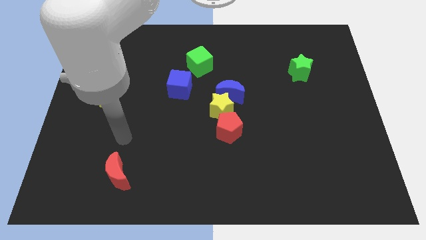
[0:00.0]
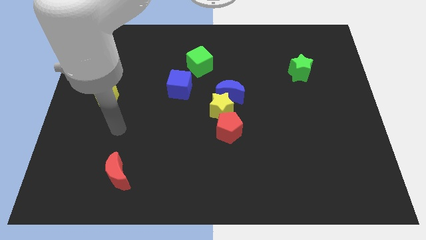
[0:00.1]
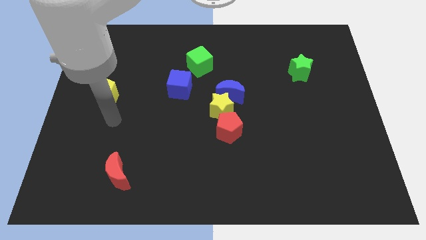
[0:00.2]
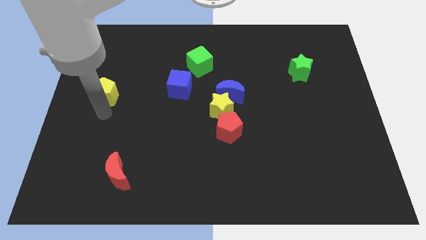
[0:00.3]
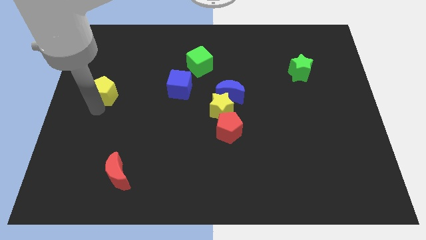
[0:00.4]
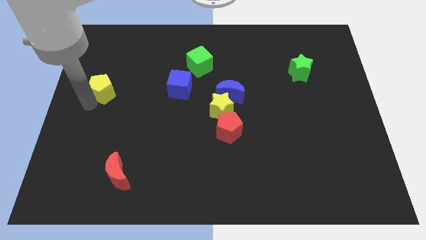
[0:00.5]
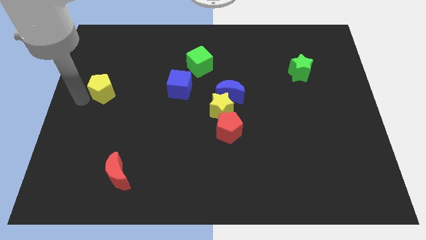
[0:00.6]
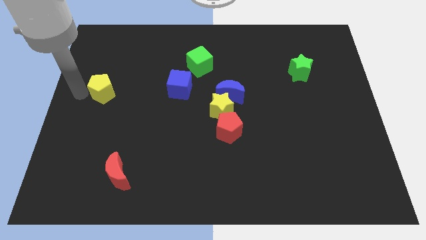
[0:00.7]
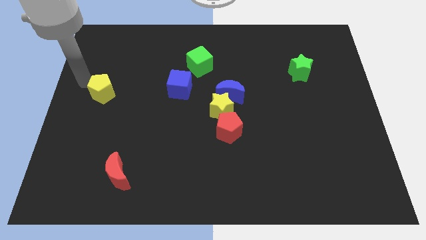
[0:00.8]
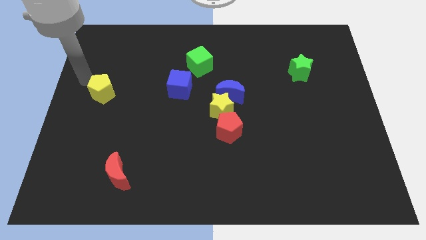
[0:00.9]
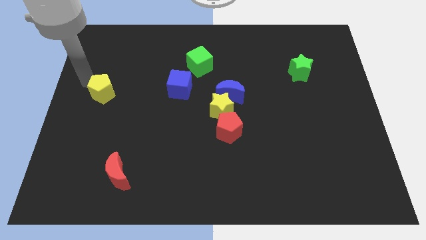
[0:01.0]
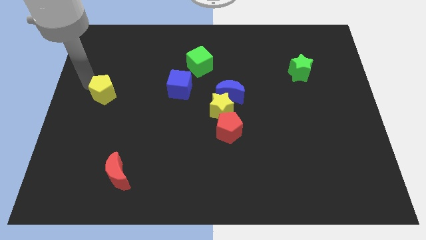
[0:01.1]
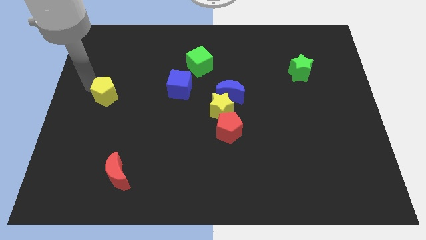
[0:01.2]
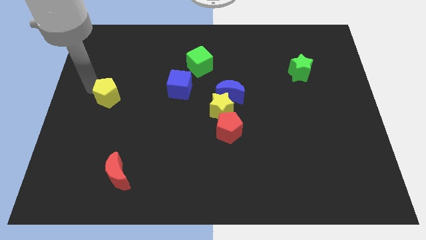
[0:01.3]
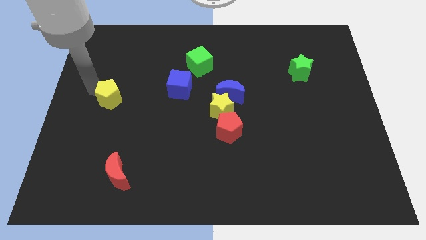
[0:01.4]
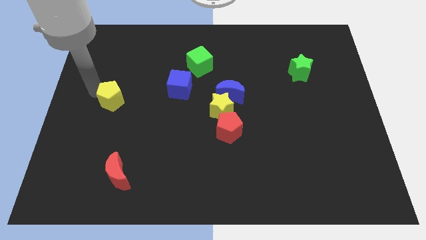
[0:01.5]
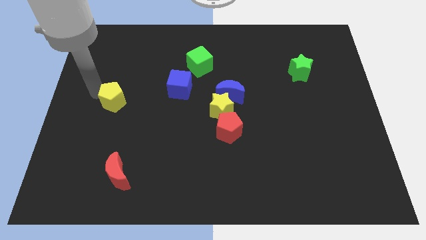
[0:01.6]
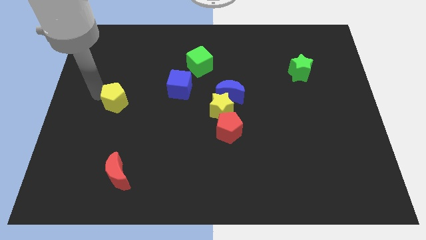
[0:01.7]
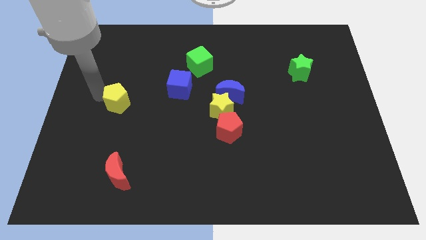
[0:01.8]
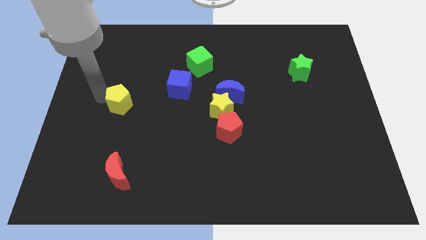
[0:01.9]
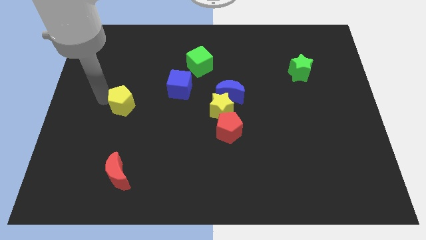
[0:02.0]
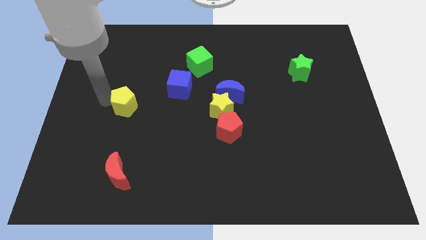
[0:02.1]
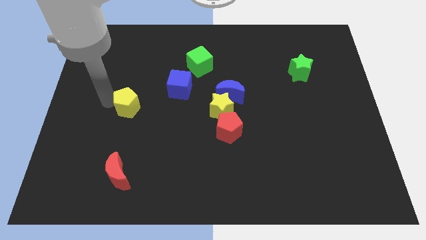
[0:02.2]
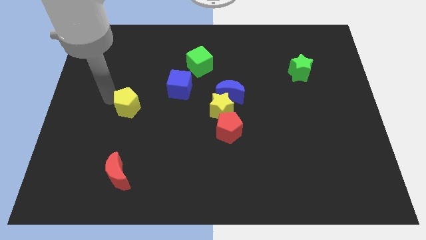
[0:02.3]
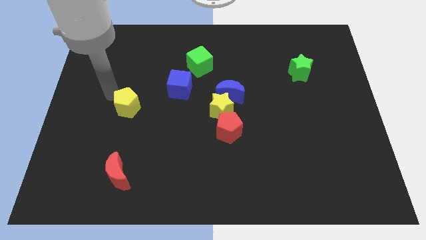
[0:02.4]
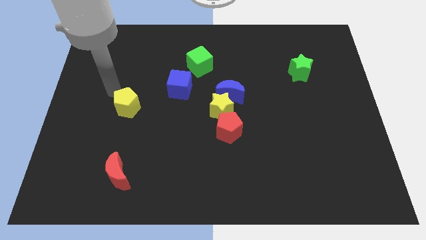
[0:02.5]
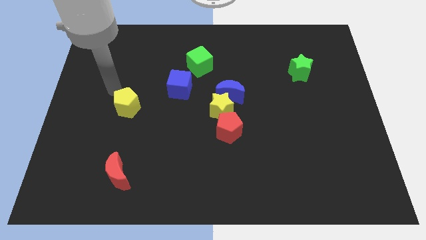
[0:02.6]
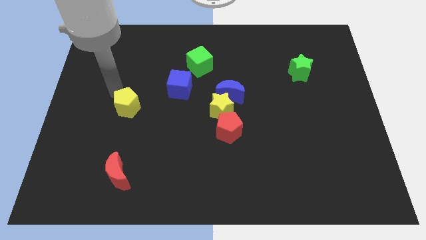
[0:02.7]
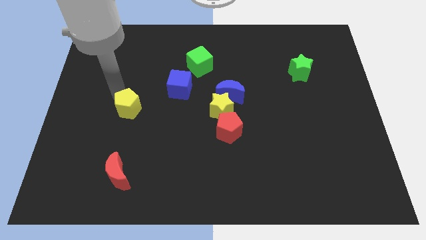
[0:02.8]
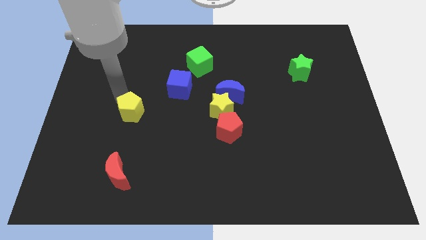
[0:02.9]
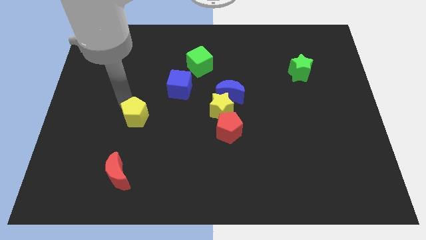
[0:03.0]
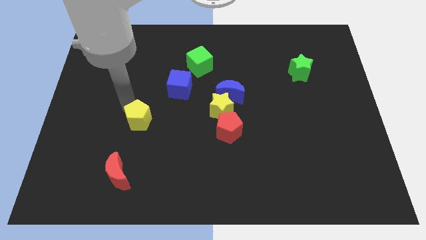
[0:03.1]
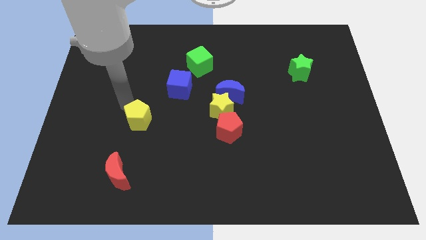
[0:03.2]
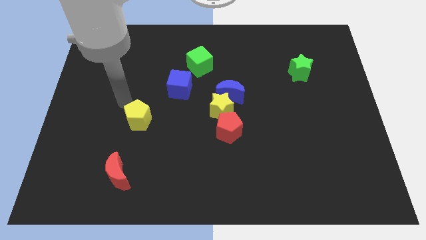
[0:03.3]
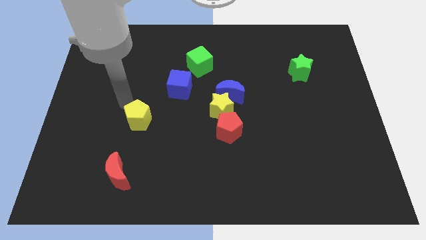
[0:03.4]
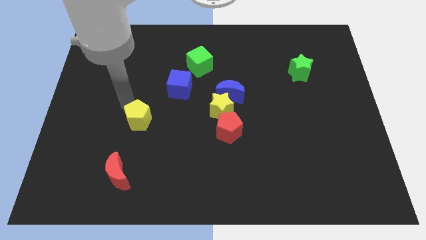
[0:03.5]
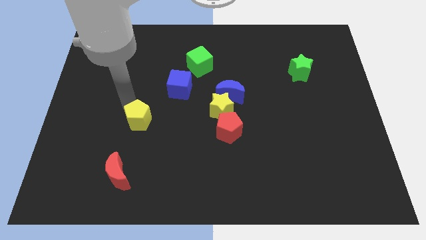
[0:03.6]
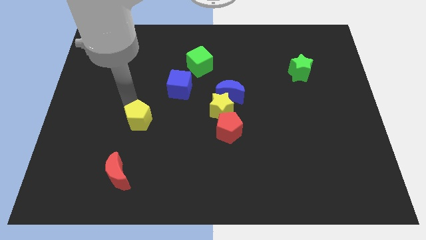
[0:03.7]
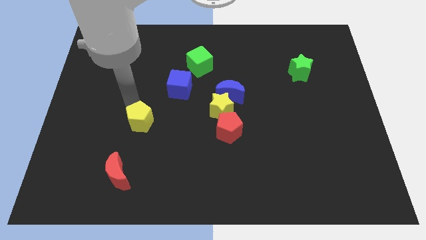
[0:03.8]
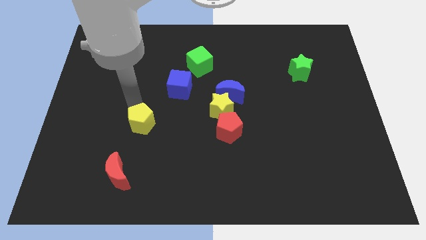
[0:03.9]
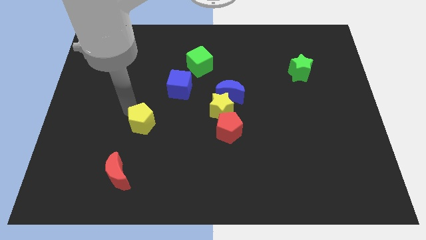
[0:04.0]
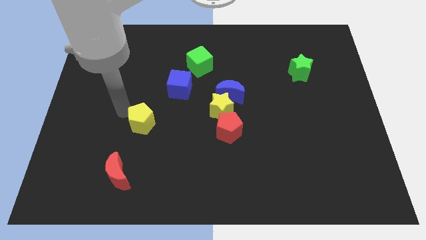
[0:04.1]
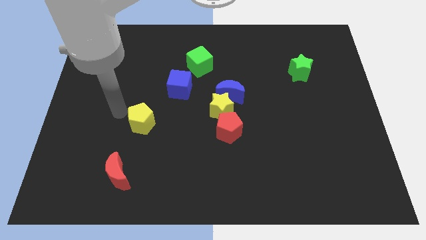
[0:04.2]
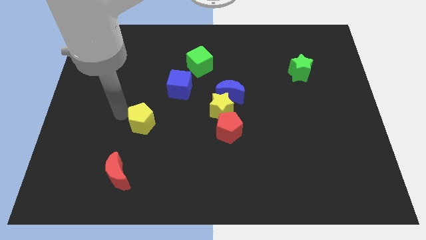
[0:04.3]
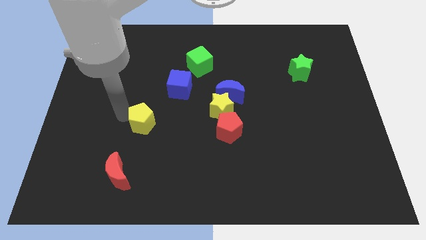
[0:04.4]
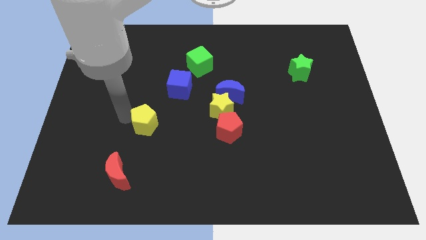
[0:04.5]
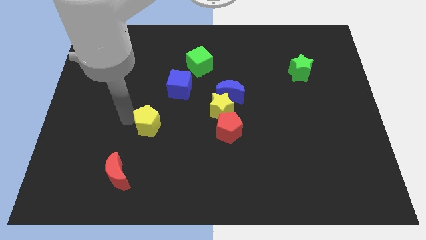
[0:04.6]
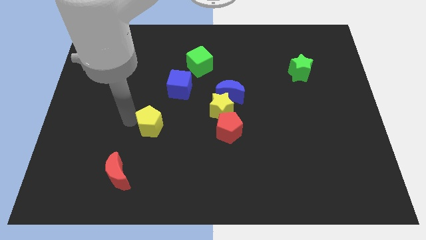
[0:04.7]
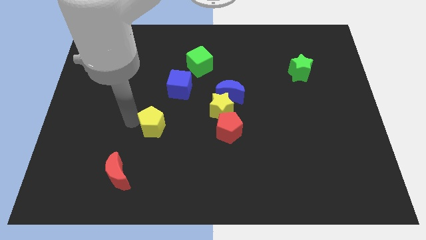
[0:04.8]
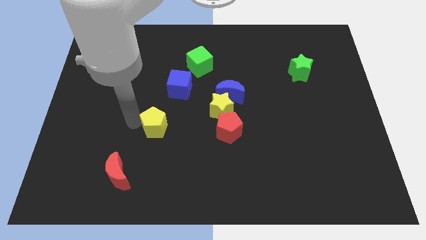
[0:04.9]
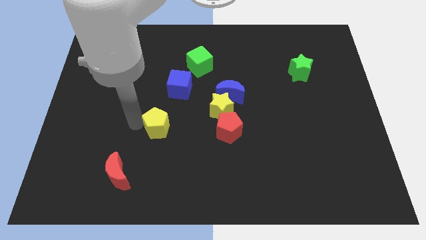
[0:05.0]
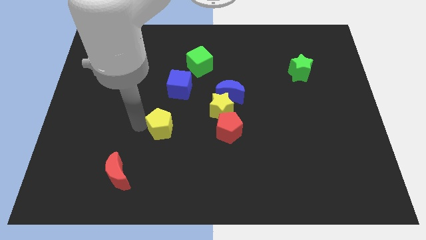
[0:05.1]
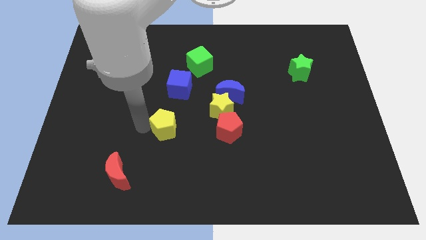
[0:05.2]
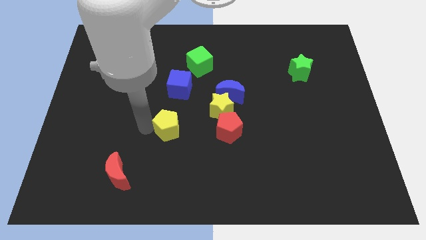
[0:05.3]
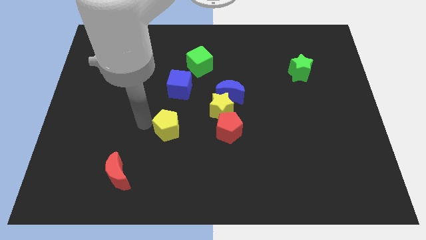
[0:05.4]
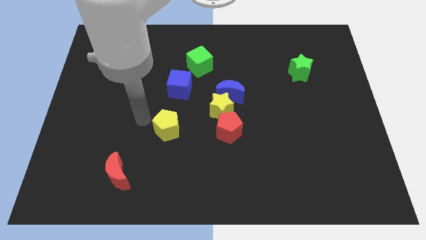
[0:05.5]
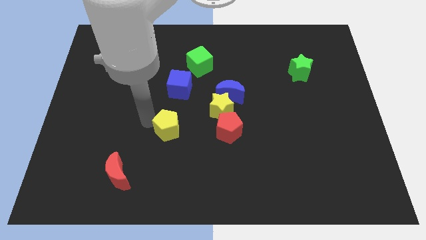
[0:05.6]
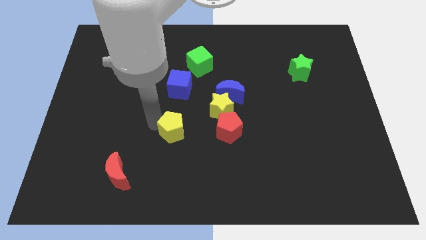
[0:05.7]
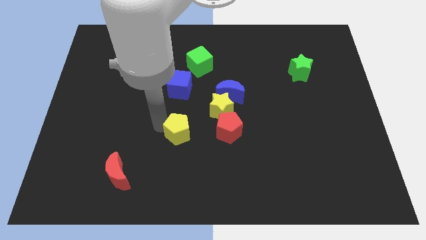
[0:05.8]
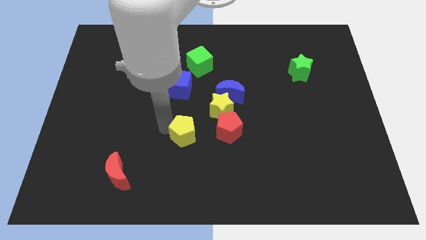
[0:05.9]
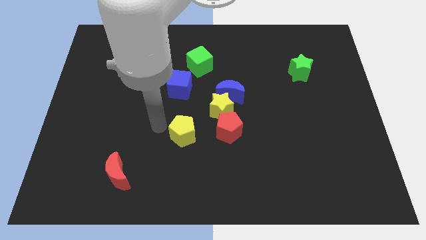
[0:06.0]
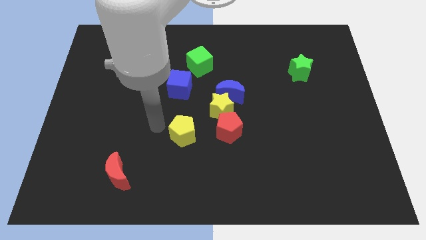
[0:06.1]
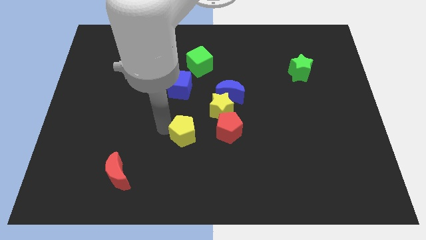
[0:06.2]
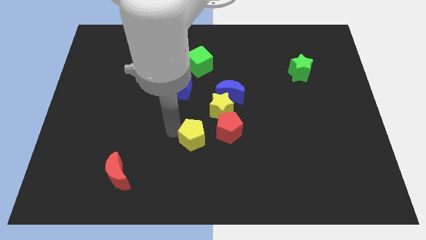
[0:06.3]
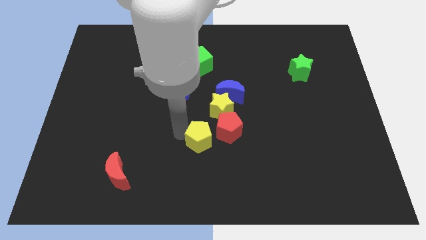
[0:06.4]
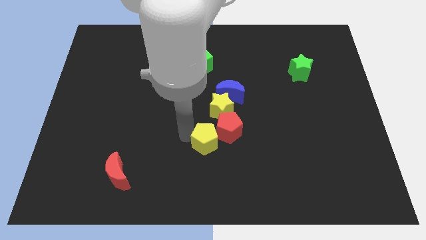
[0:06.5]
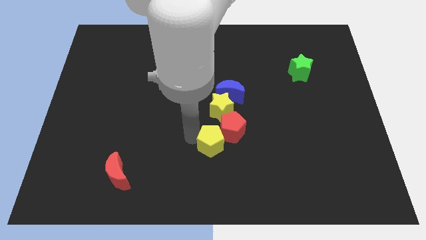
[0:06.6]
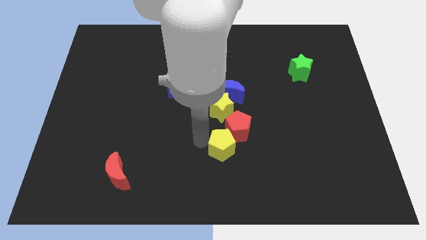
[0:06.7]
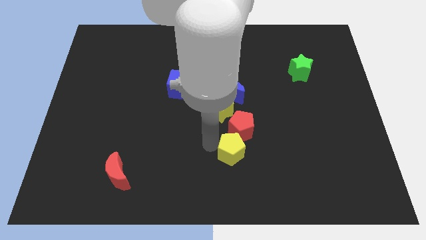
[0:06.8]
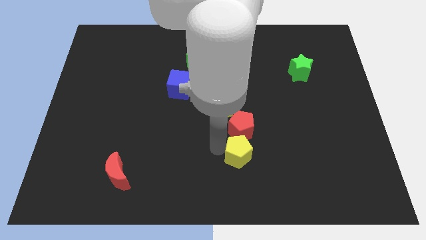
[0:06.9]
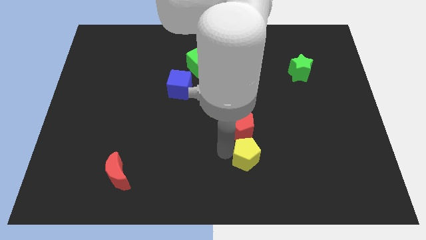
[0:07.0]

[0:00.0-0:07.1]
push the yellow pentagon diagonally down and to the right of the red pentagon

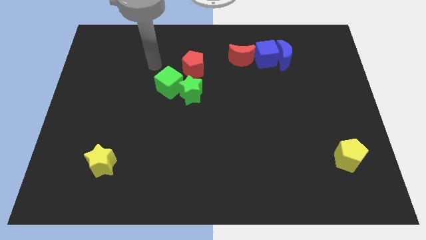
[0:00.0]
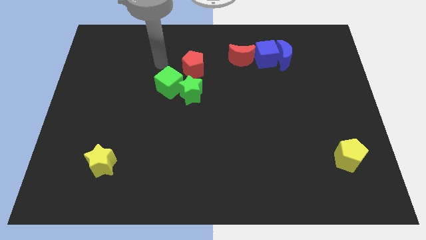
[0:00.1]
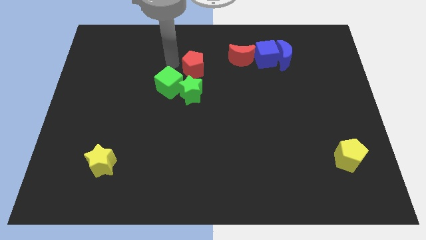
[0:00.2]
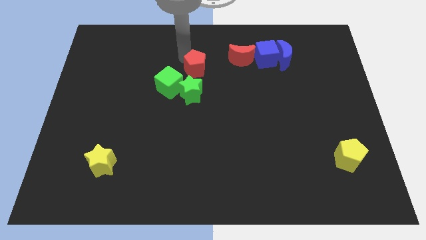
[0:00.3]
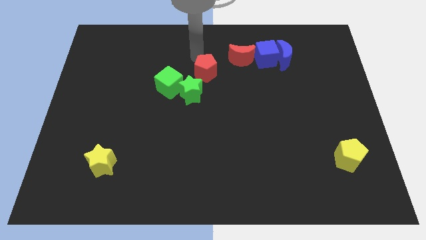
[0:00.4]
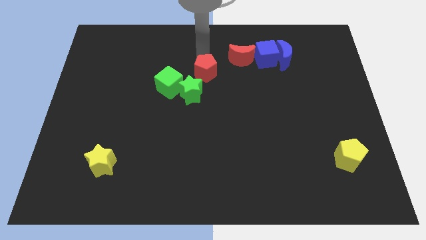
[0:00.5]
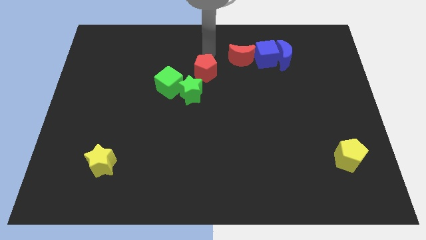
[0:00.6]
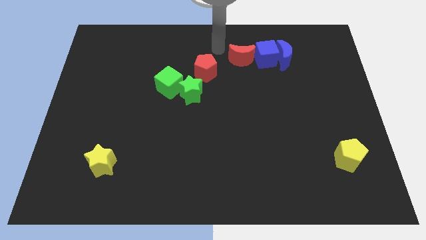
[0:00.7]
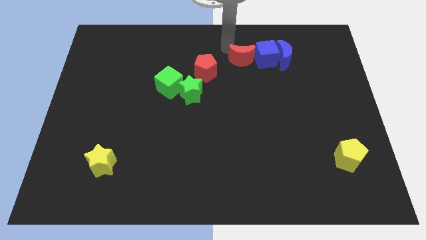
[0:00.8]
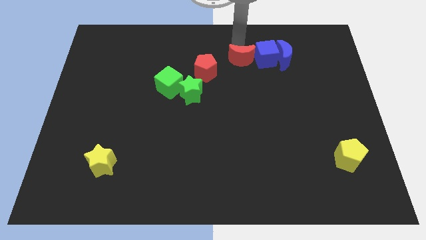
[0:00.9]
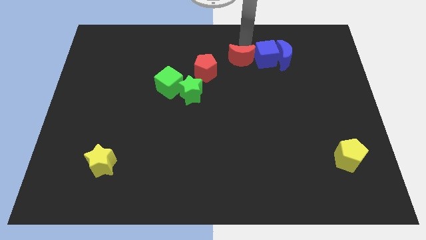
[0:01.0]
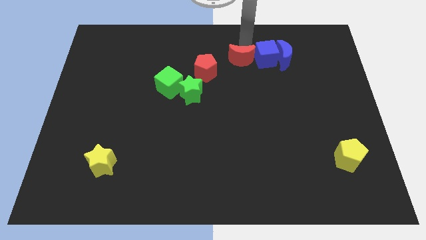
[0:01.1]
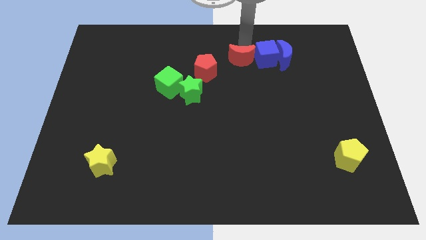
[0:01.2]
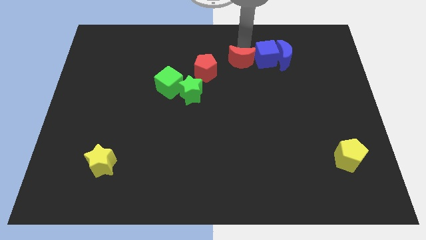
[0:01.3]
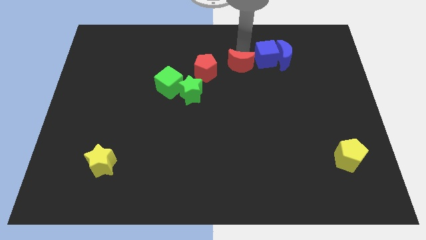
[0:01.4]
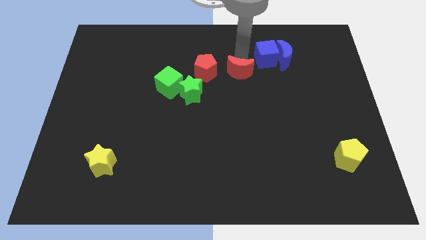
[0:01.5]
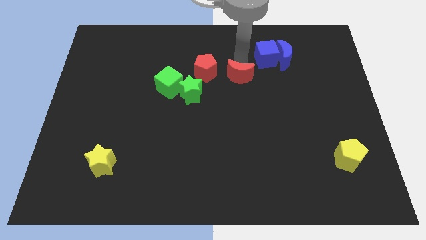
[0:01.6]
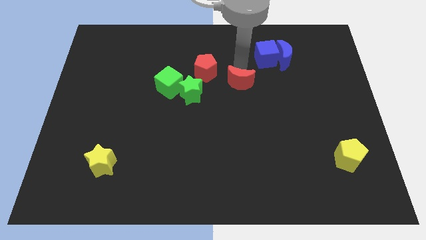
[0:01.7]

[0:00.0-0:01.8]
put the red moon right of the green star
